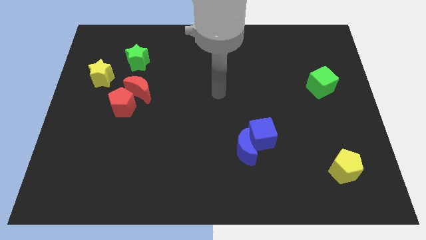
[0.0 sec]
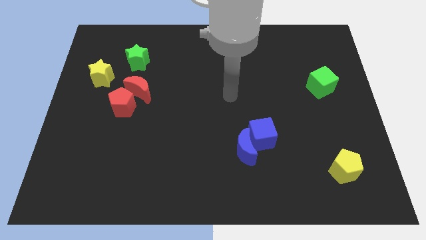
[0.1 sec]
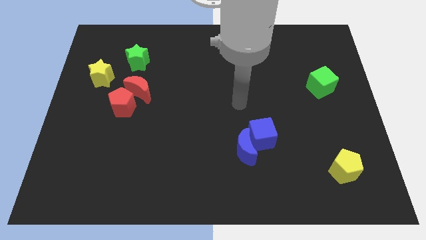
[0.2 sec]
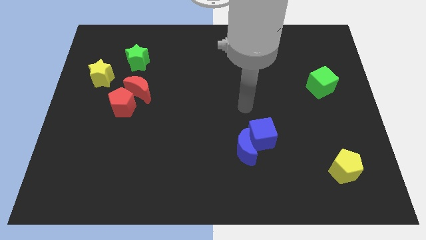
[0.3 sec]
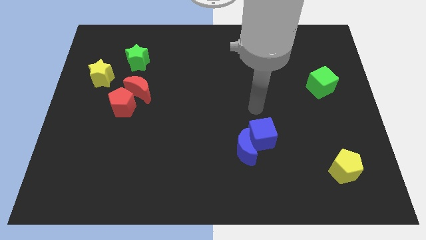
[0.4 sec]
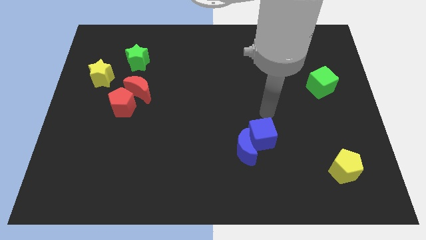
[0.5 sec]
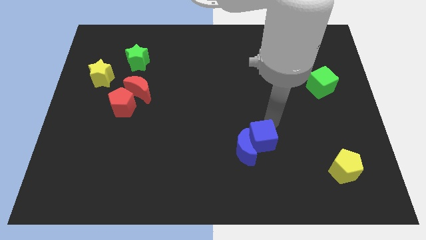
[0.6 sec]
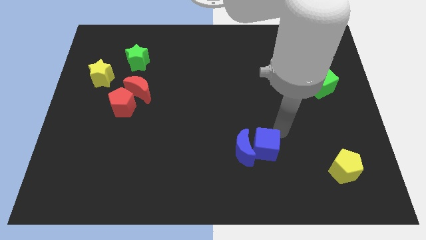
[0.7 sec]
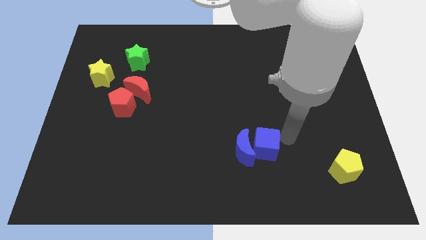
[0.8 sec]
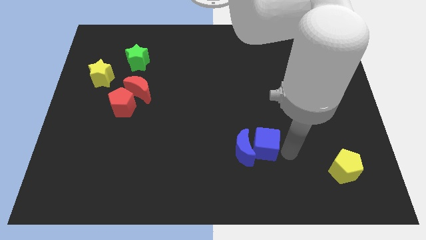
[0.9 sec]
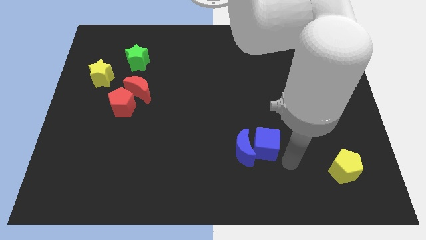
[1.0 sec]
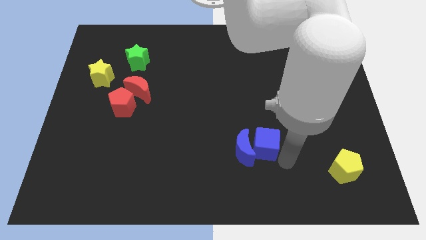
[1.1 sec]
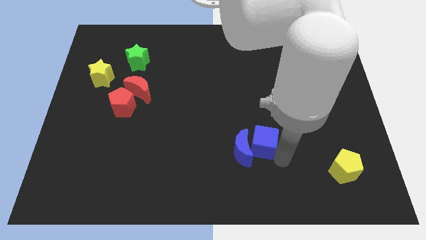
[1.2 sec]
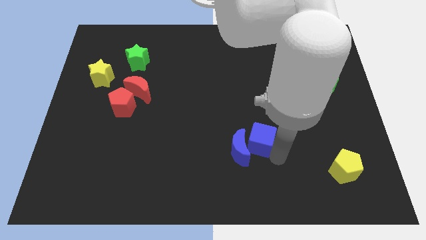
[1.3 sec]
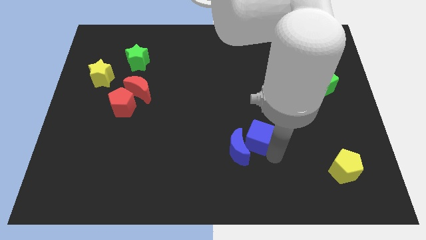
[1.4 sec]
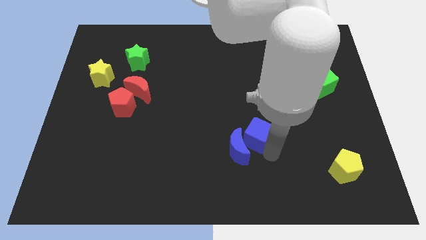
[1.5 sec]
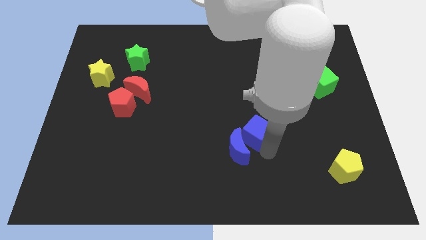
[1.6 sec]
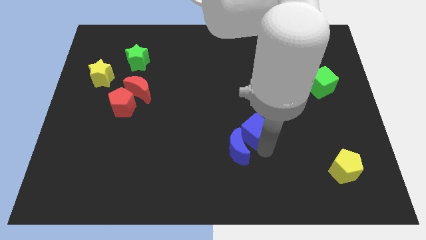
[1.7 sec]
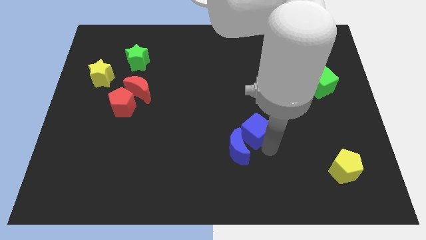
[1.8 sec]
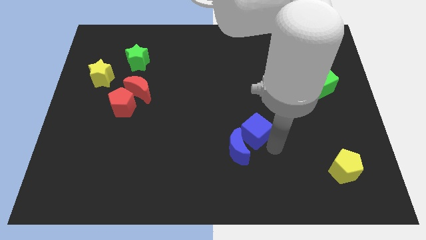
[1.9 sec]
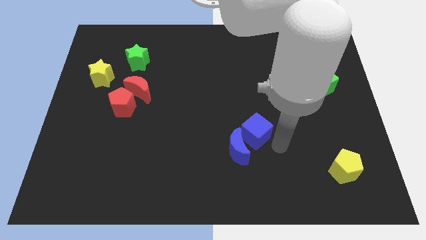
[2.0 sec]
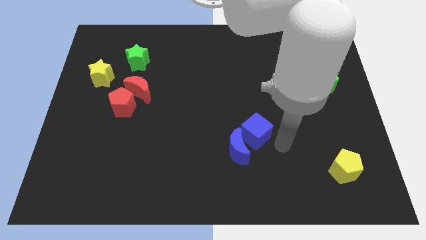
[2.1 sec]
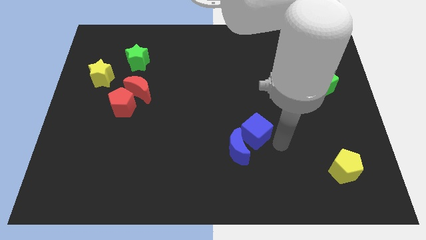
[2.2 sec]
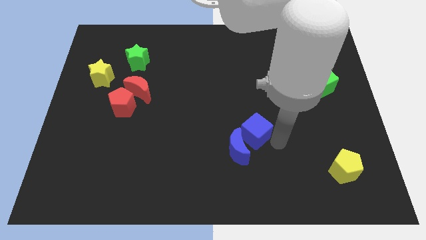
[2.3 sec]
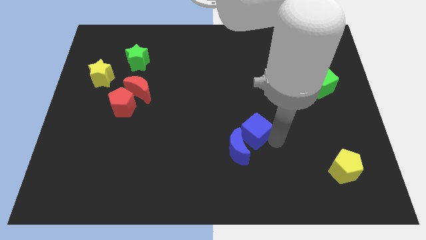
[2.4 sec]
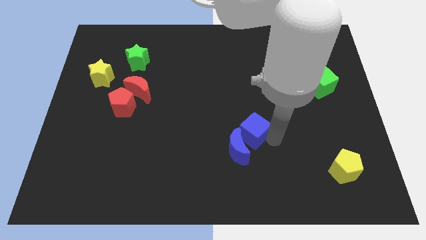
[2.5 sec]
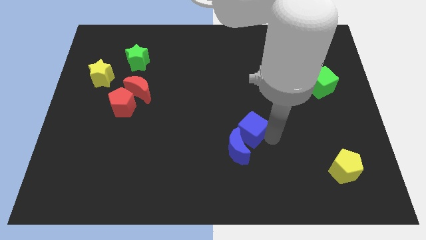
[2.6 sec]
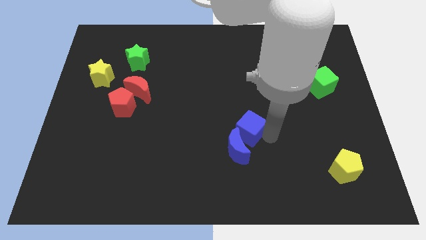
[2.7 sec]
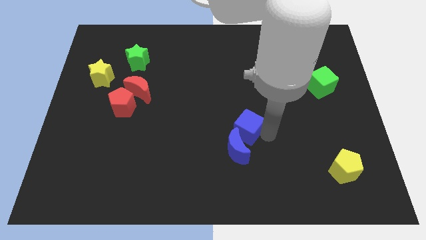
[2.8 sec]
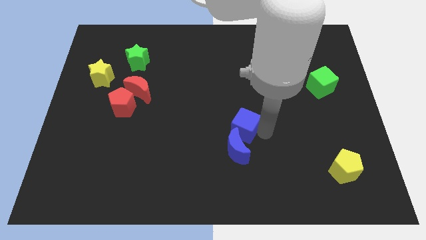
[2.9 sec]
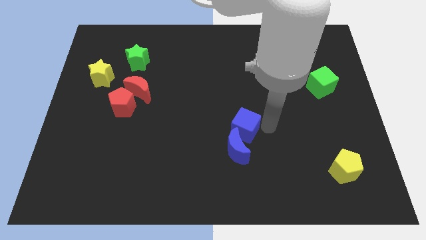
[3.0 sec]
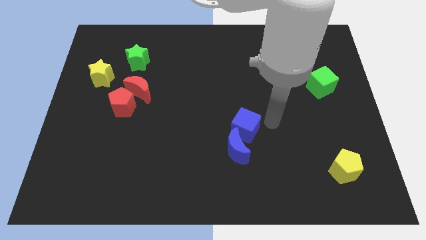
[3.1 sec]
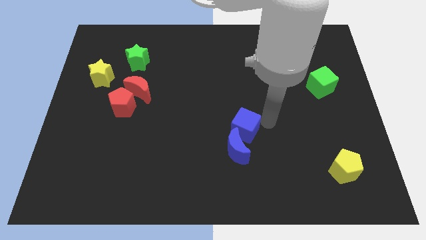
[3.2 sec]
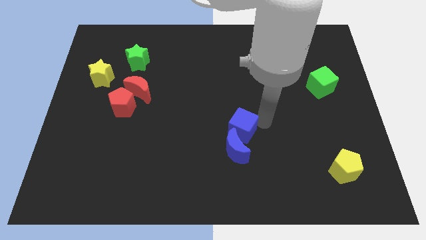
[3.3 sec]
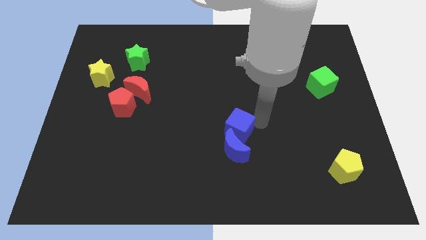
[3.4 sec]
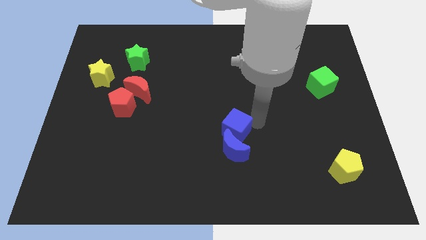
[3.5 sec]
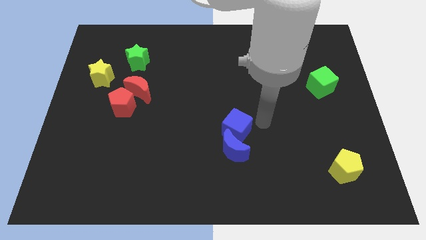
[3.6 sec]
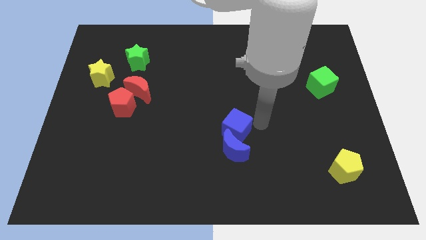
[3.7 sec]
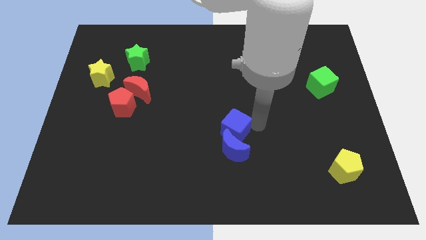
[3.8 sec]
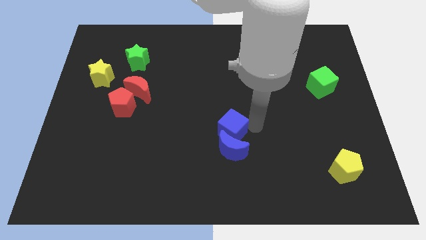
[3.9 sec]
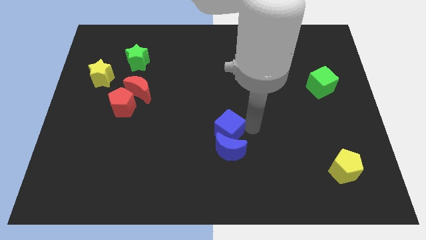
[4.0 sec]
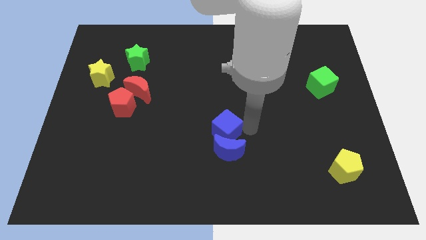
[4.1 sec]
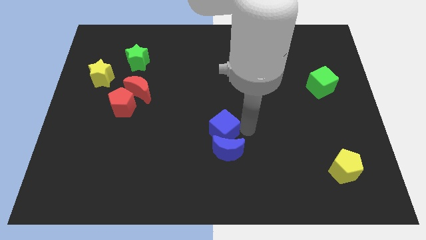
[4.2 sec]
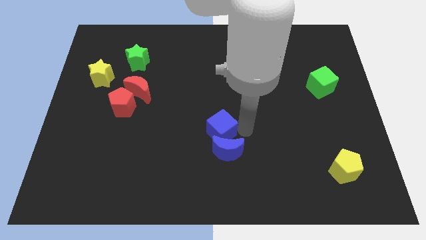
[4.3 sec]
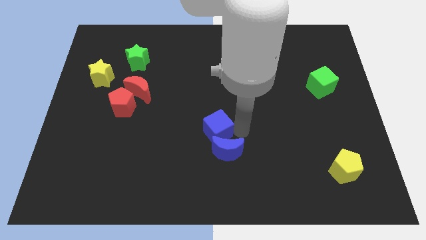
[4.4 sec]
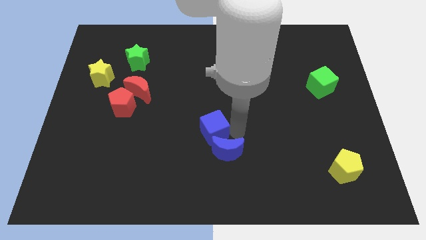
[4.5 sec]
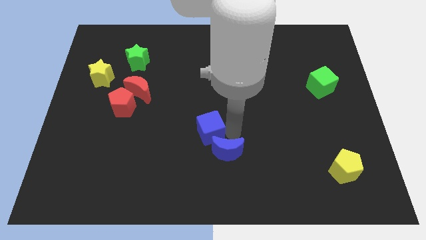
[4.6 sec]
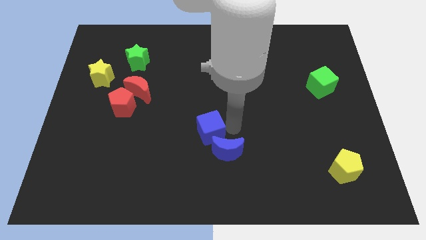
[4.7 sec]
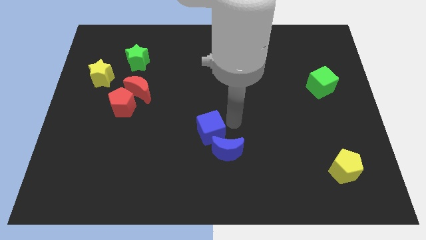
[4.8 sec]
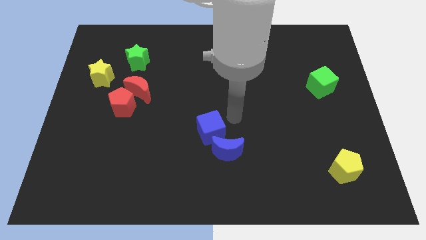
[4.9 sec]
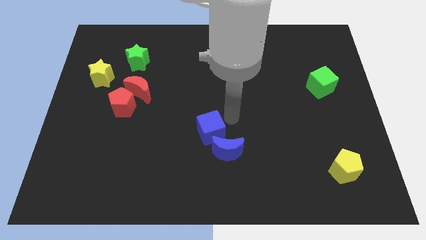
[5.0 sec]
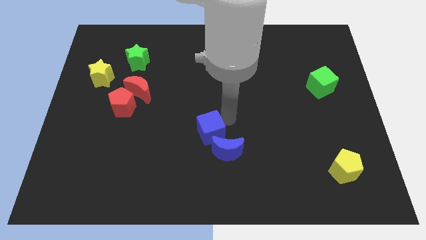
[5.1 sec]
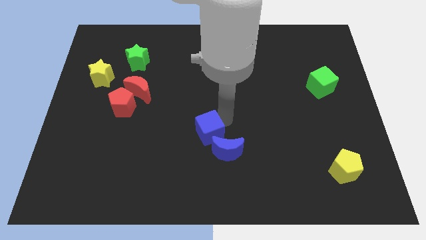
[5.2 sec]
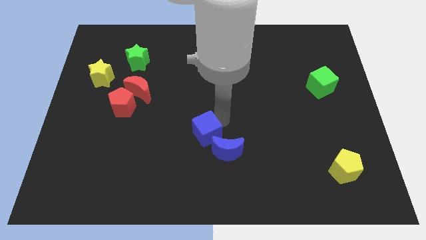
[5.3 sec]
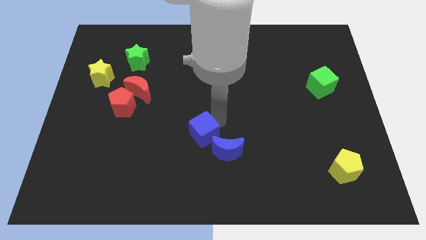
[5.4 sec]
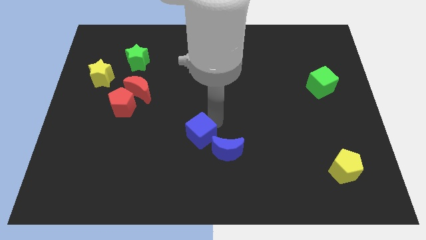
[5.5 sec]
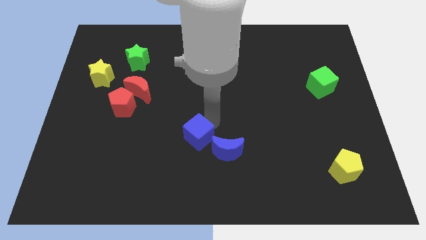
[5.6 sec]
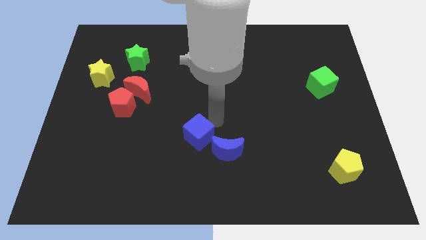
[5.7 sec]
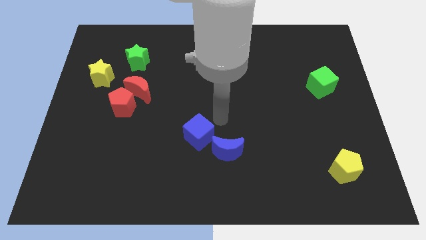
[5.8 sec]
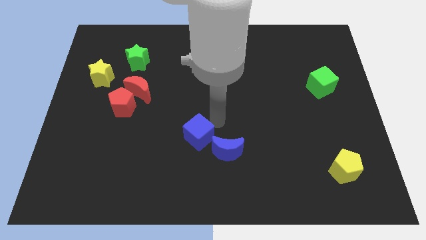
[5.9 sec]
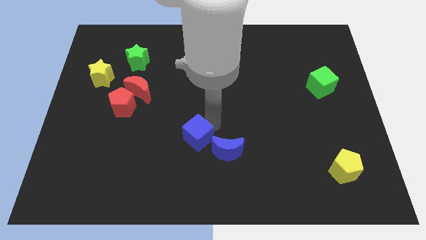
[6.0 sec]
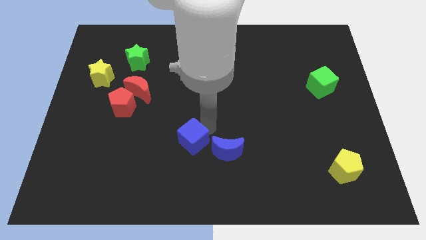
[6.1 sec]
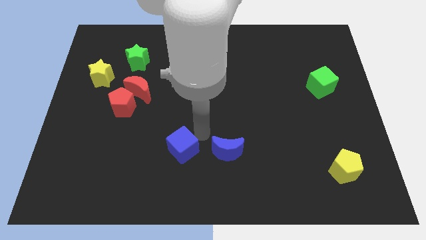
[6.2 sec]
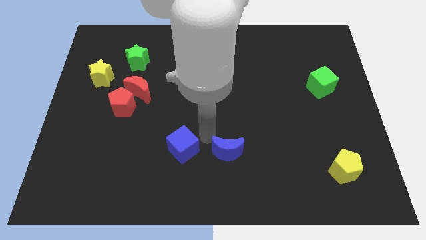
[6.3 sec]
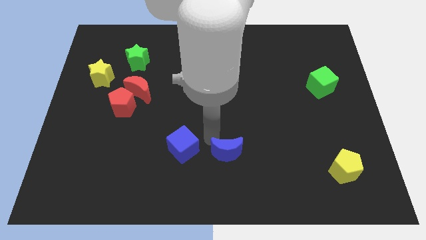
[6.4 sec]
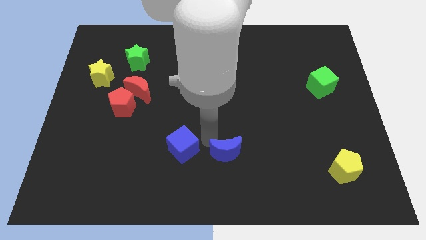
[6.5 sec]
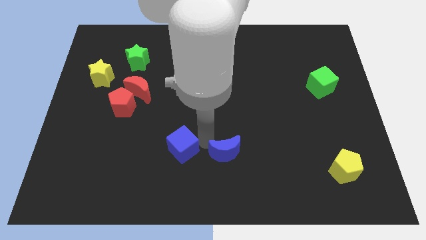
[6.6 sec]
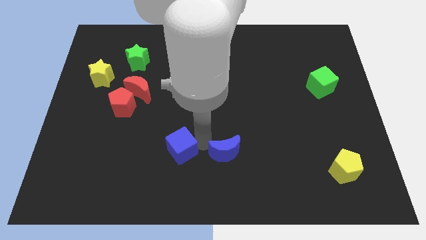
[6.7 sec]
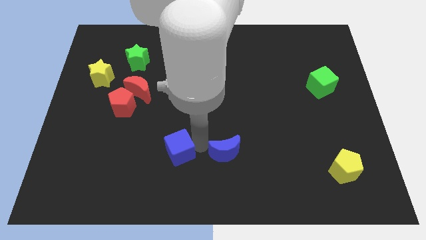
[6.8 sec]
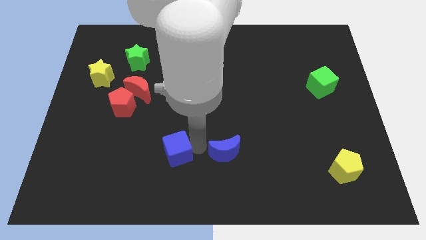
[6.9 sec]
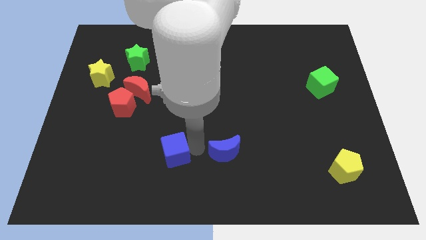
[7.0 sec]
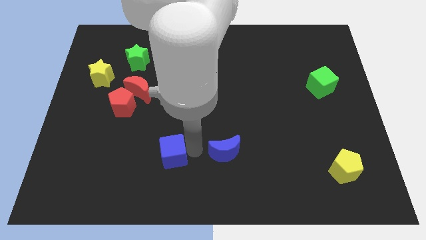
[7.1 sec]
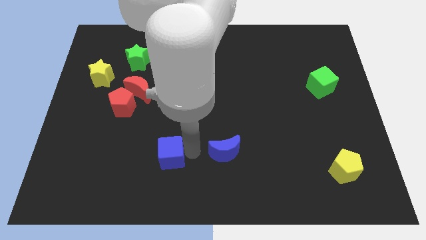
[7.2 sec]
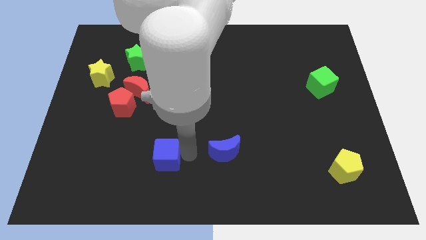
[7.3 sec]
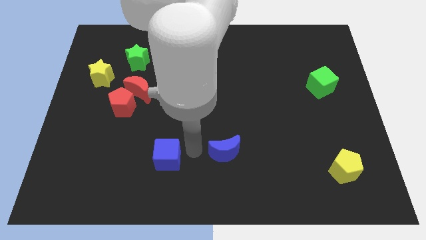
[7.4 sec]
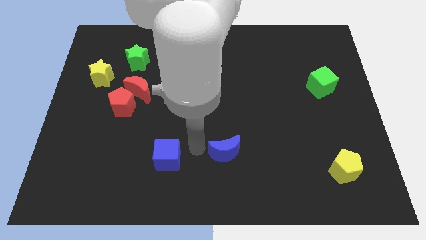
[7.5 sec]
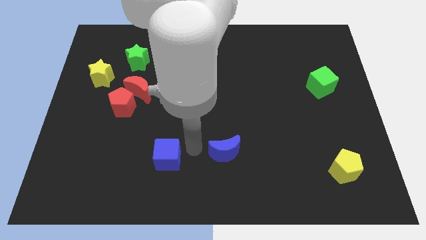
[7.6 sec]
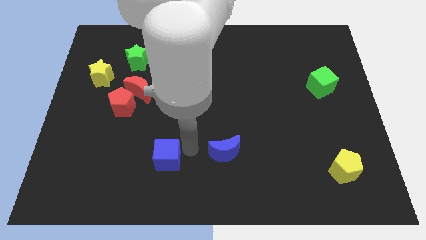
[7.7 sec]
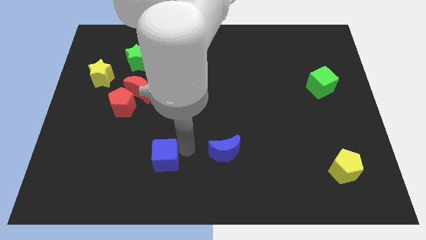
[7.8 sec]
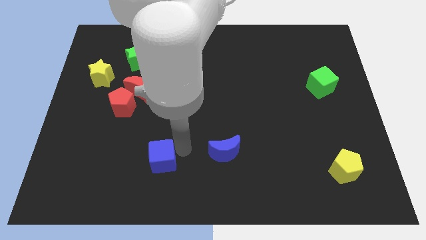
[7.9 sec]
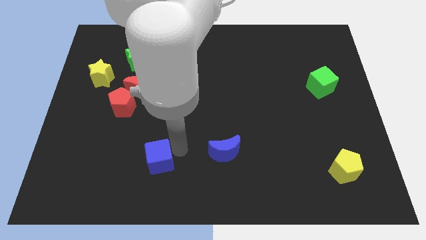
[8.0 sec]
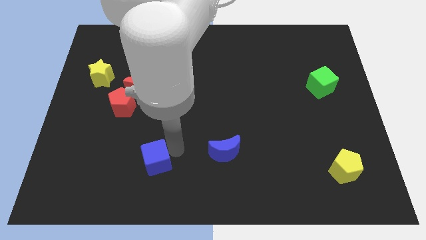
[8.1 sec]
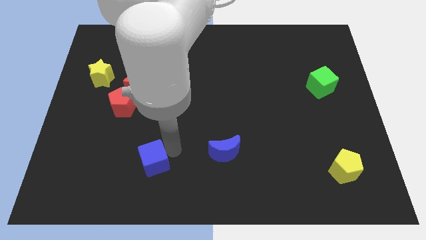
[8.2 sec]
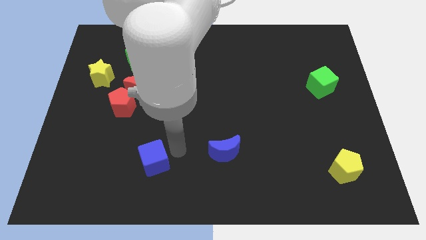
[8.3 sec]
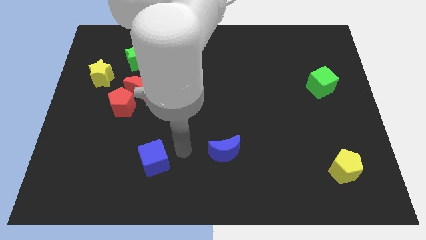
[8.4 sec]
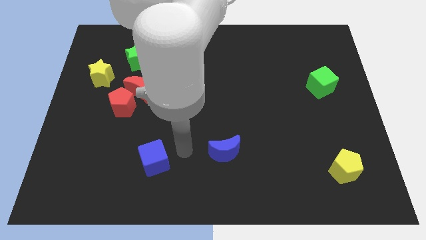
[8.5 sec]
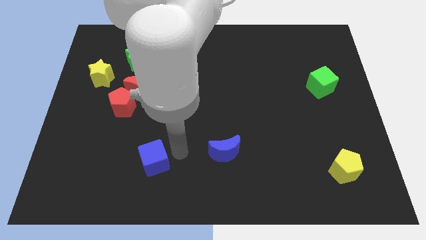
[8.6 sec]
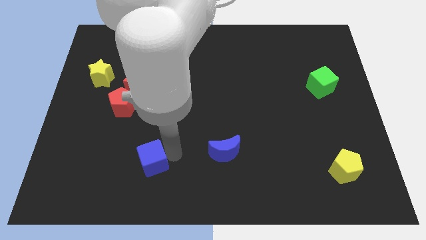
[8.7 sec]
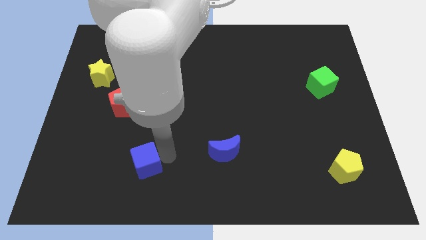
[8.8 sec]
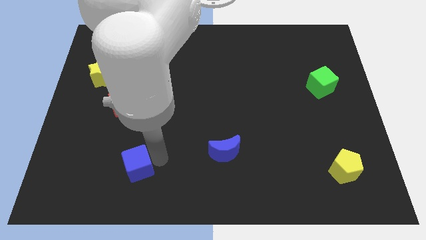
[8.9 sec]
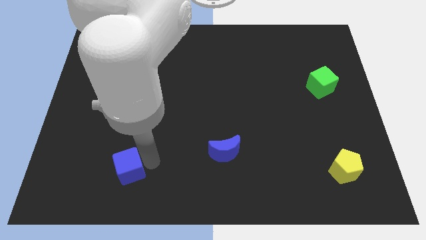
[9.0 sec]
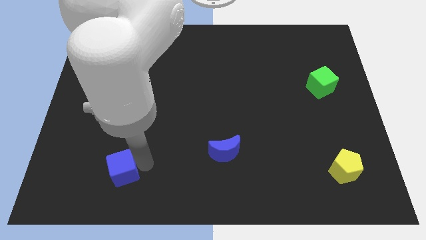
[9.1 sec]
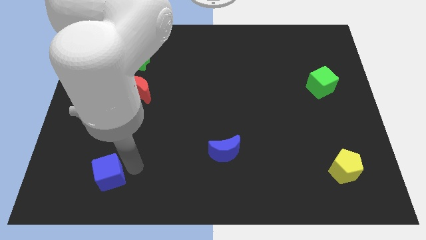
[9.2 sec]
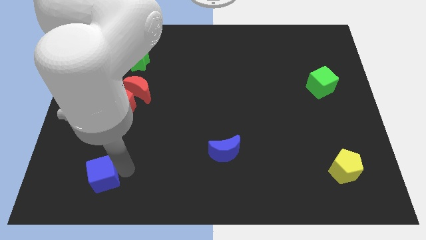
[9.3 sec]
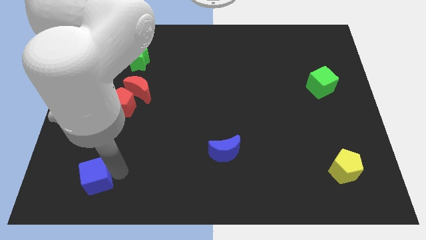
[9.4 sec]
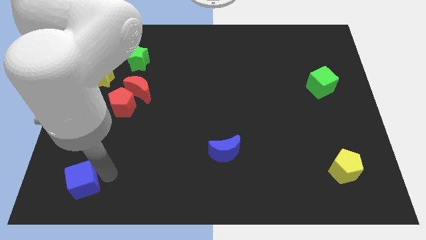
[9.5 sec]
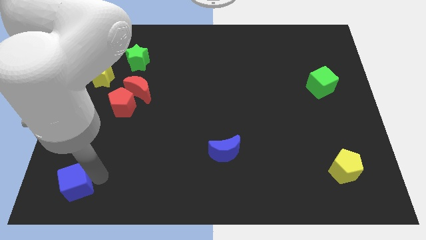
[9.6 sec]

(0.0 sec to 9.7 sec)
slide the blue cube to the bottom left
